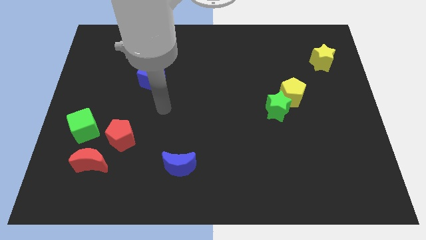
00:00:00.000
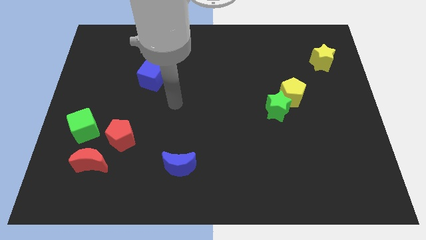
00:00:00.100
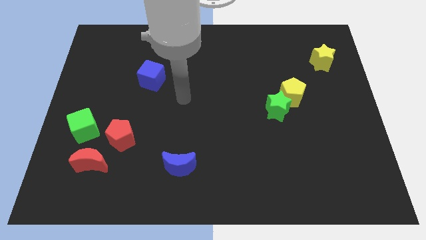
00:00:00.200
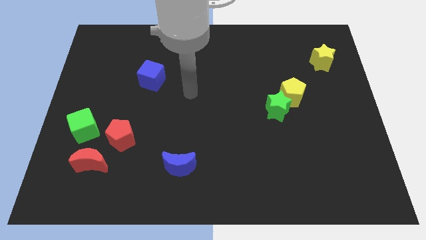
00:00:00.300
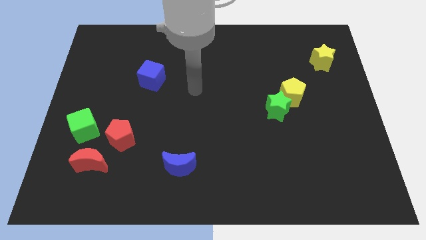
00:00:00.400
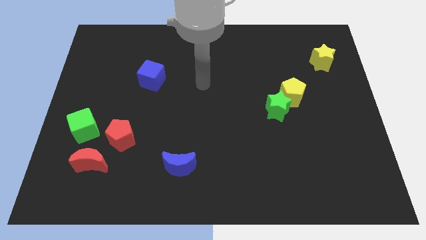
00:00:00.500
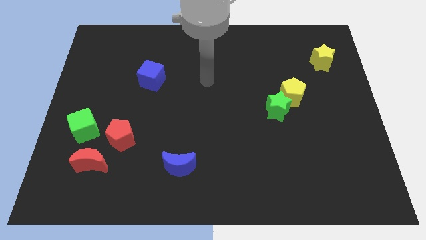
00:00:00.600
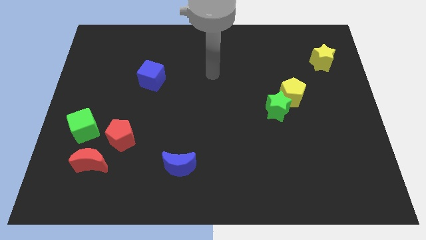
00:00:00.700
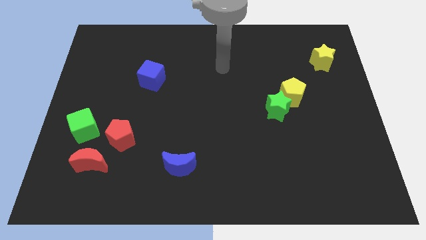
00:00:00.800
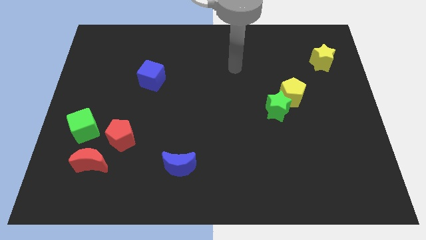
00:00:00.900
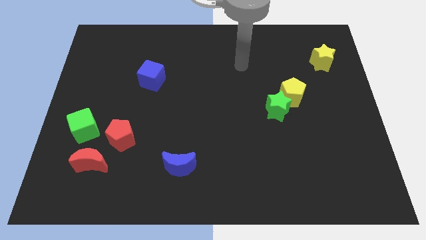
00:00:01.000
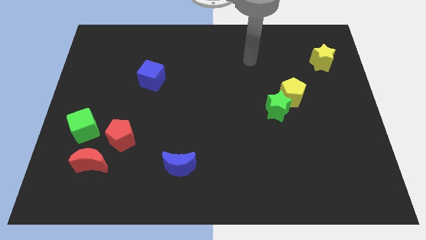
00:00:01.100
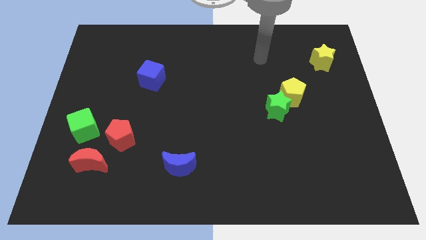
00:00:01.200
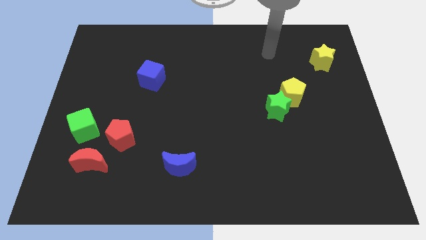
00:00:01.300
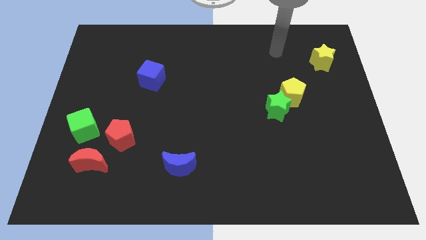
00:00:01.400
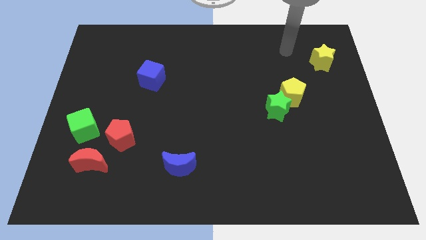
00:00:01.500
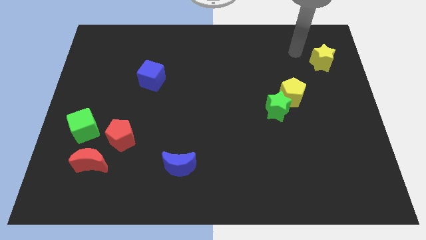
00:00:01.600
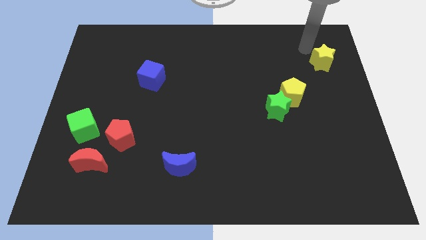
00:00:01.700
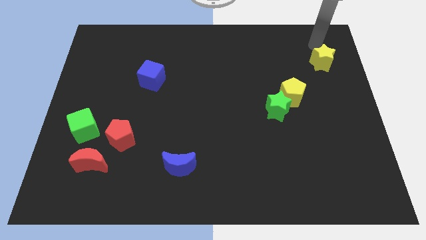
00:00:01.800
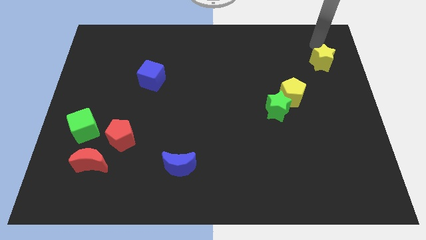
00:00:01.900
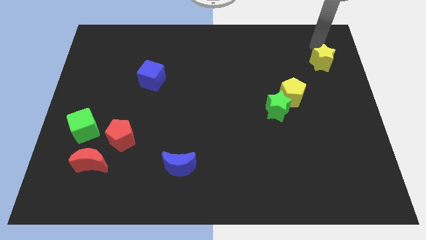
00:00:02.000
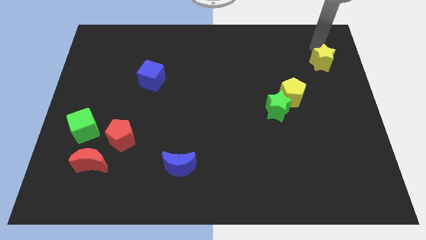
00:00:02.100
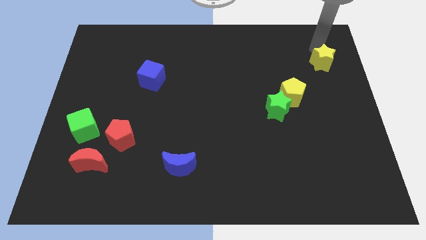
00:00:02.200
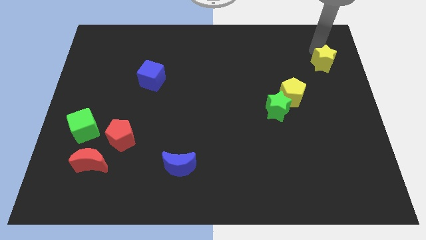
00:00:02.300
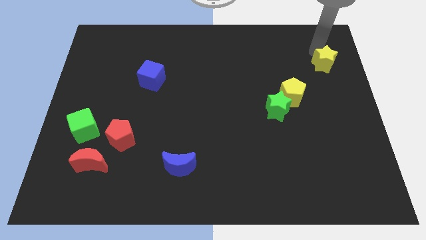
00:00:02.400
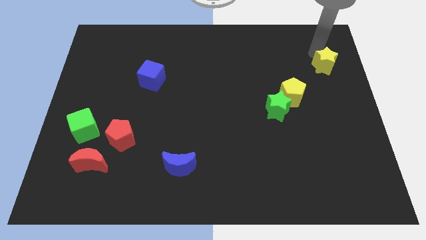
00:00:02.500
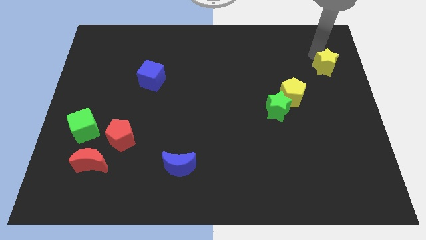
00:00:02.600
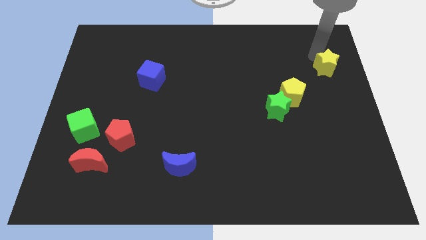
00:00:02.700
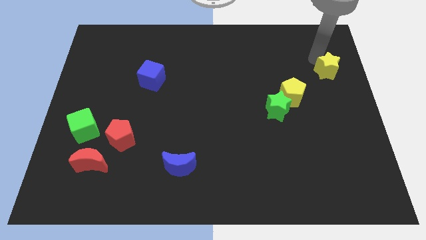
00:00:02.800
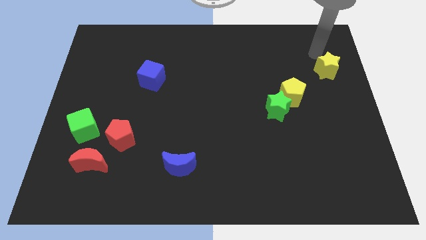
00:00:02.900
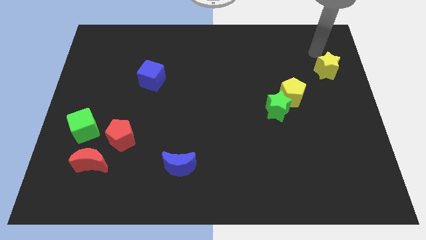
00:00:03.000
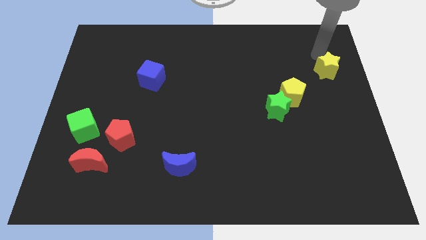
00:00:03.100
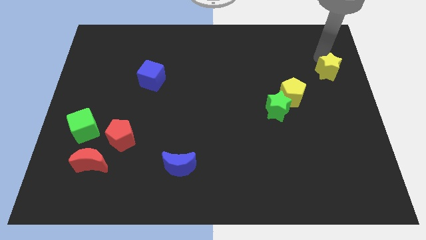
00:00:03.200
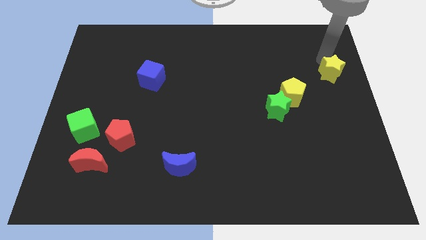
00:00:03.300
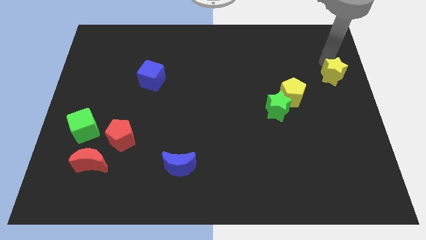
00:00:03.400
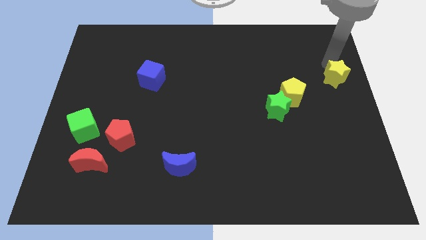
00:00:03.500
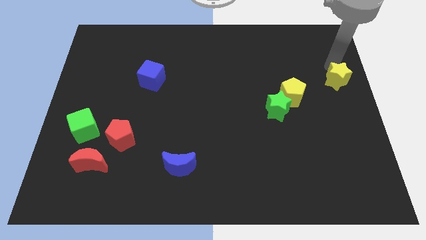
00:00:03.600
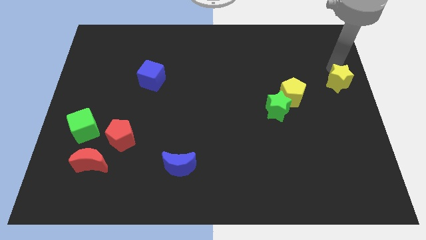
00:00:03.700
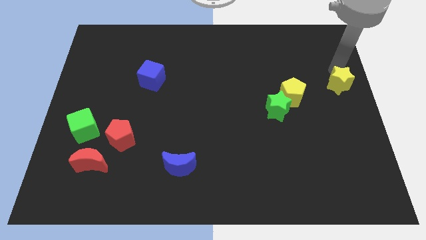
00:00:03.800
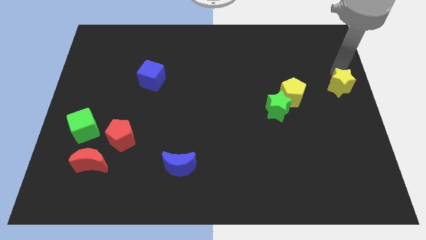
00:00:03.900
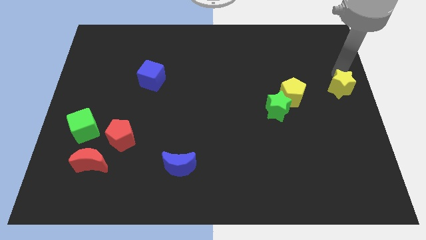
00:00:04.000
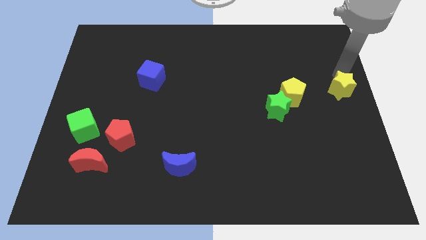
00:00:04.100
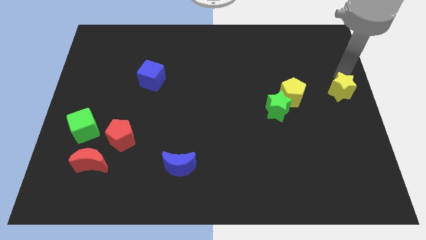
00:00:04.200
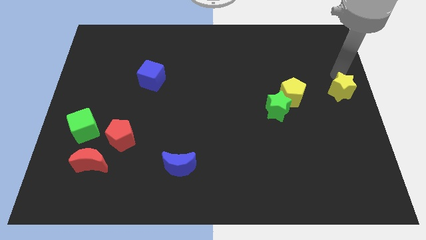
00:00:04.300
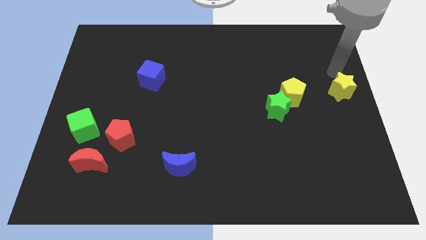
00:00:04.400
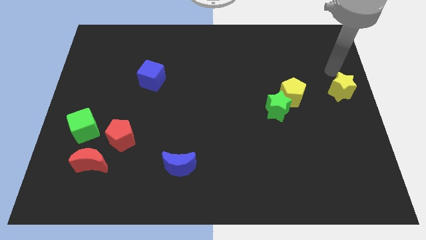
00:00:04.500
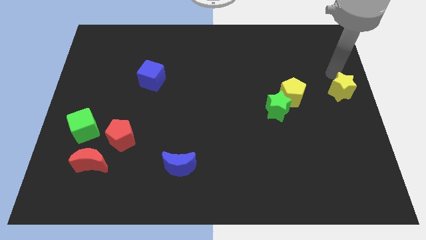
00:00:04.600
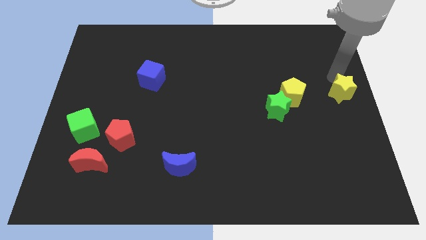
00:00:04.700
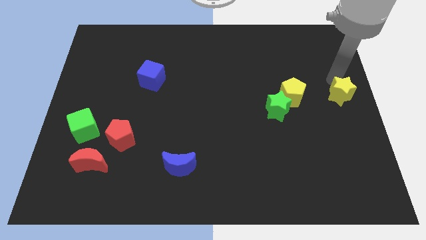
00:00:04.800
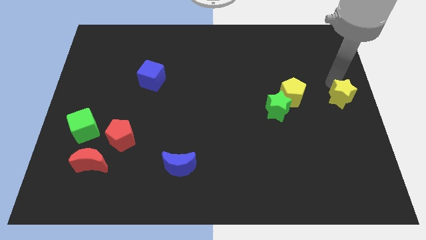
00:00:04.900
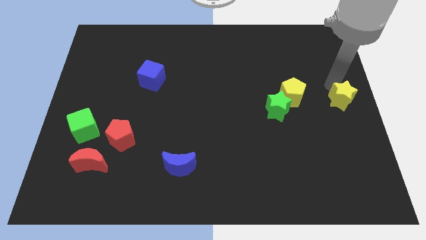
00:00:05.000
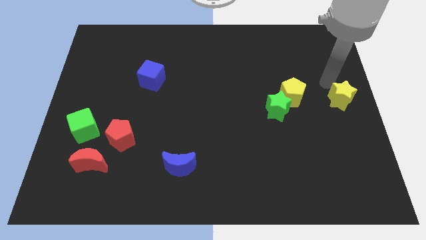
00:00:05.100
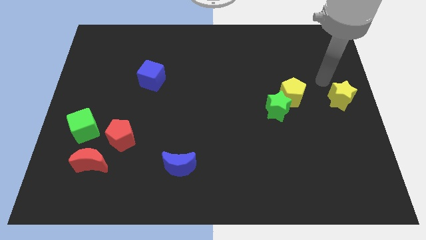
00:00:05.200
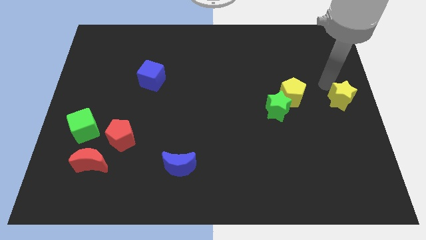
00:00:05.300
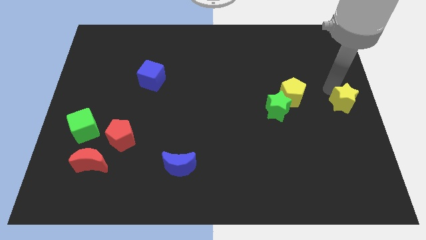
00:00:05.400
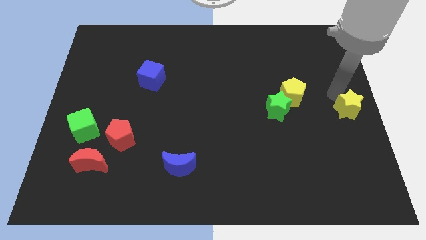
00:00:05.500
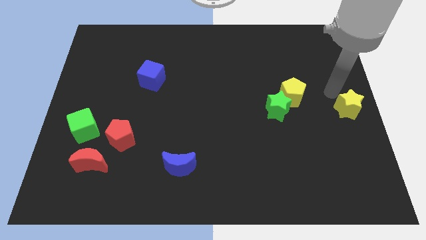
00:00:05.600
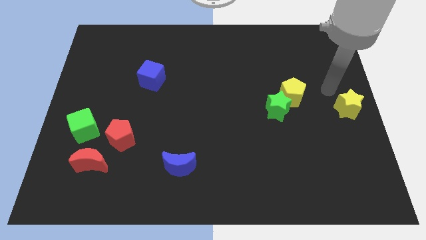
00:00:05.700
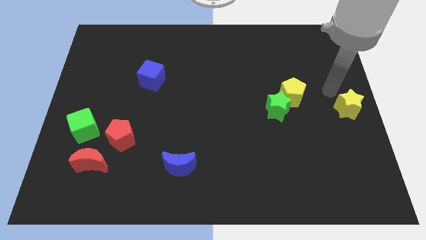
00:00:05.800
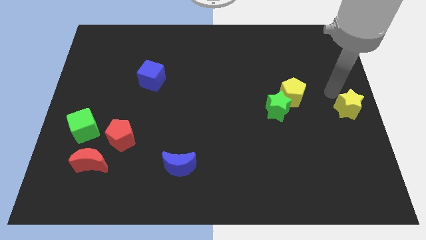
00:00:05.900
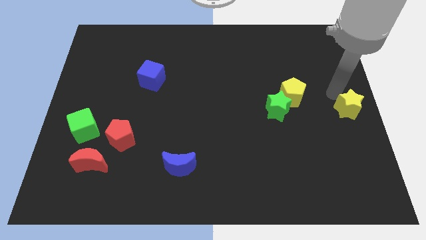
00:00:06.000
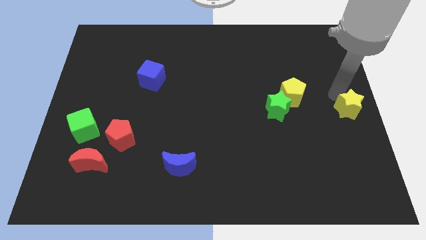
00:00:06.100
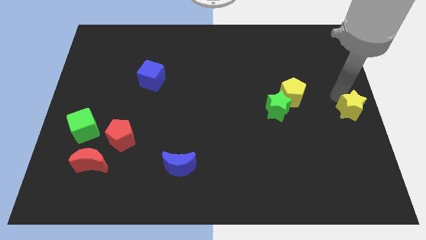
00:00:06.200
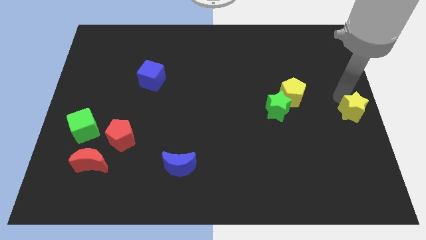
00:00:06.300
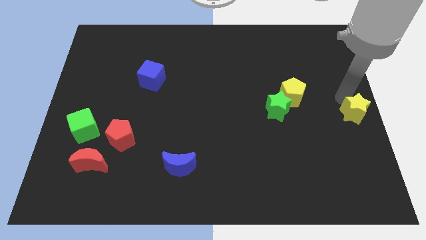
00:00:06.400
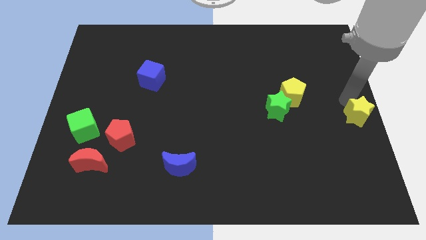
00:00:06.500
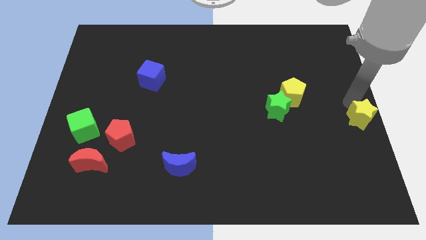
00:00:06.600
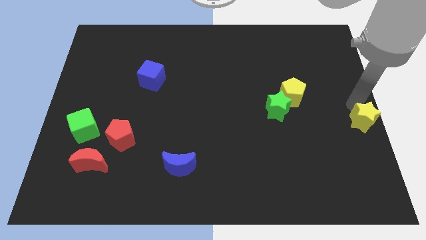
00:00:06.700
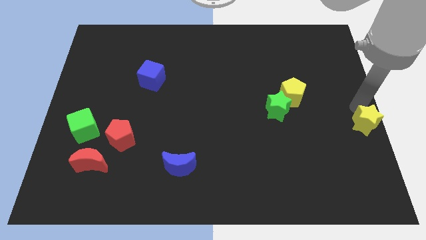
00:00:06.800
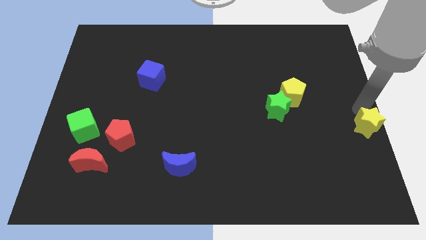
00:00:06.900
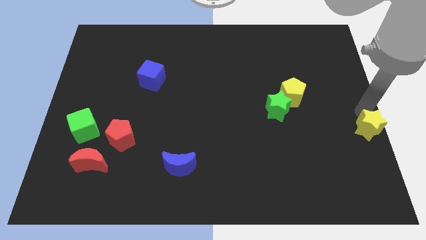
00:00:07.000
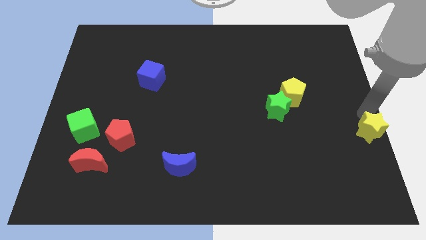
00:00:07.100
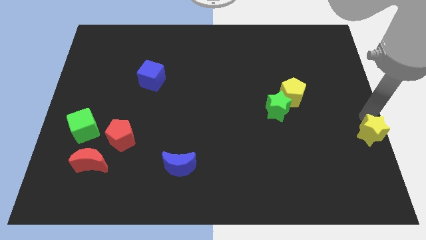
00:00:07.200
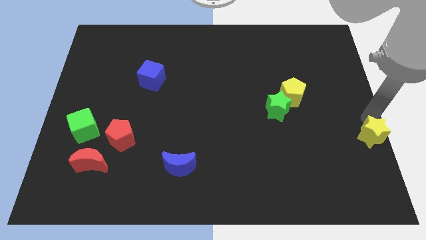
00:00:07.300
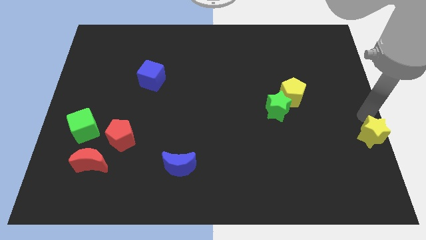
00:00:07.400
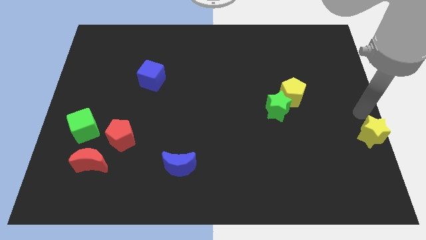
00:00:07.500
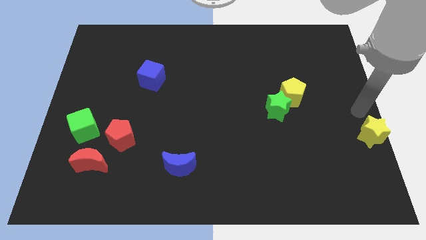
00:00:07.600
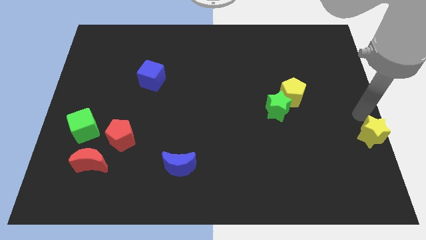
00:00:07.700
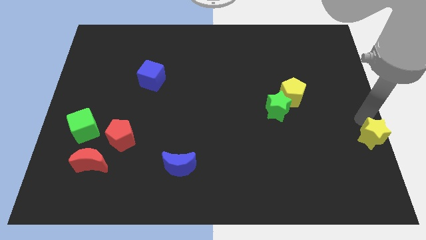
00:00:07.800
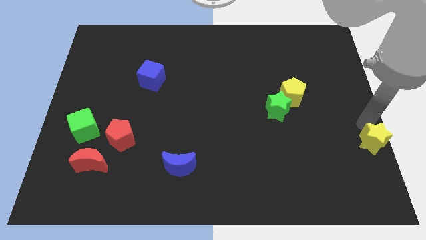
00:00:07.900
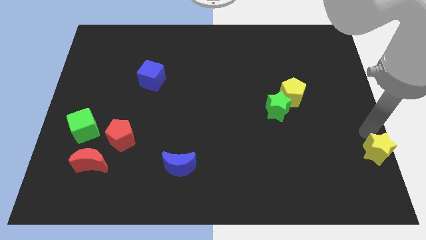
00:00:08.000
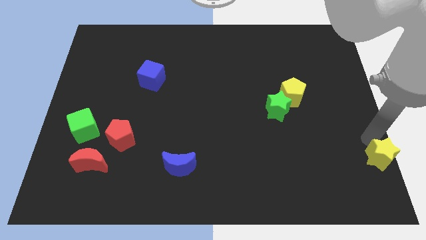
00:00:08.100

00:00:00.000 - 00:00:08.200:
put the yellow star to the lower right corner
